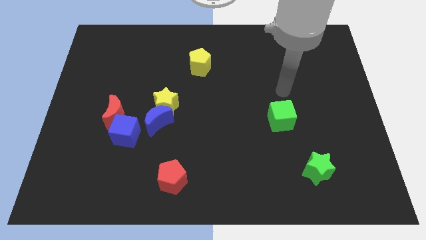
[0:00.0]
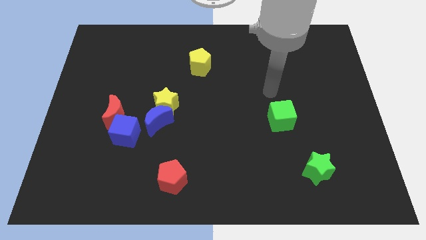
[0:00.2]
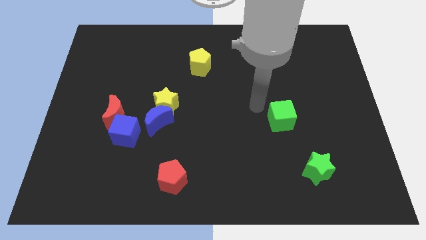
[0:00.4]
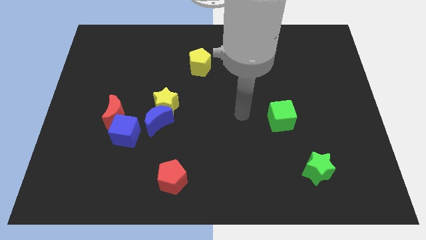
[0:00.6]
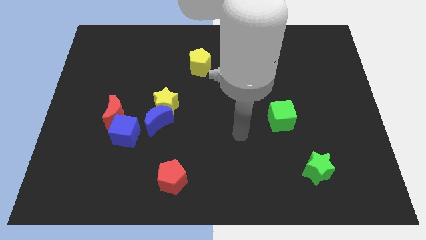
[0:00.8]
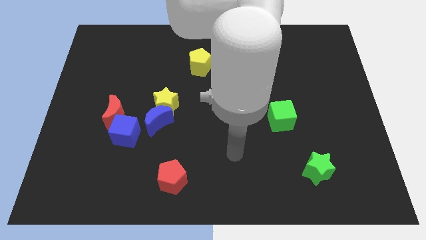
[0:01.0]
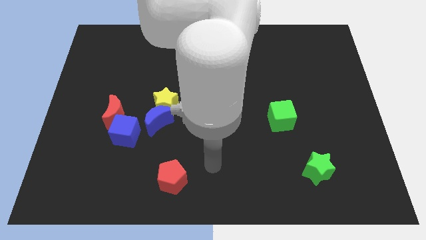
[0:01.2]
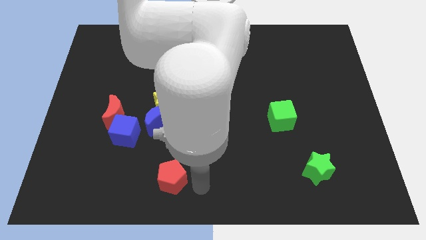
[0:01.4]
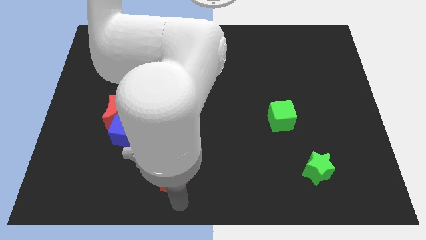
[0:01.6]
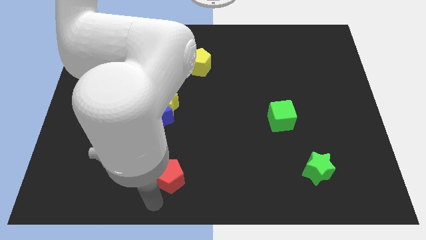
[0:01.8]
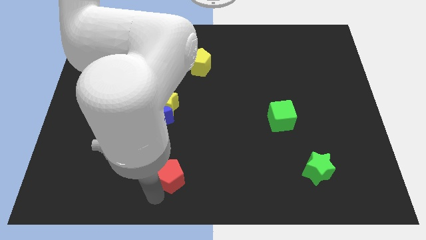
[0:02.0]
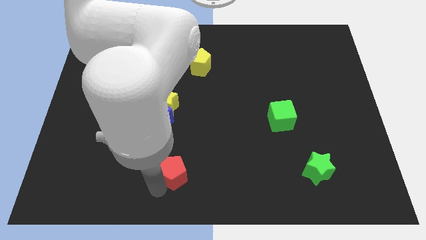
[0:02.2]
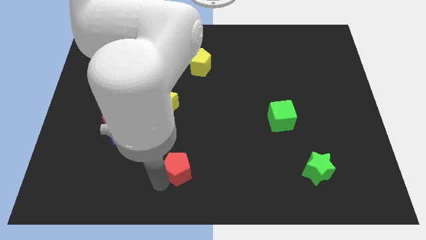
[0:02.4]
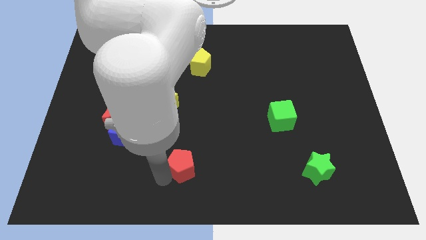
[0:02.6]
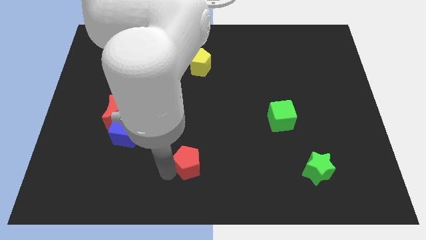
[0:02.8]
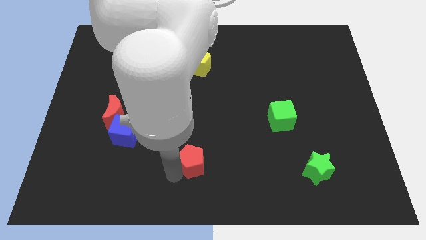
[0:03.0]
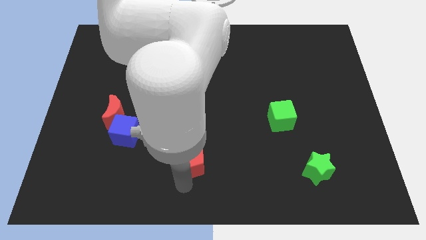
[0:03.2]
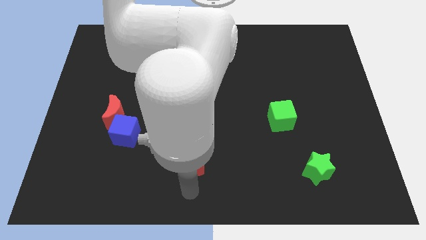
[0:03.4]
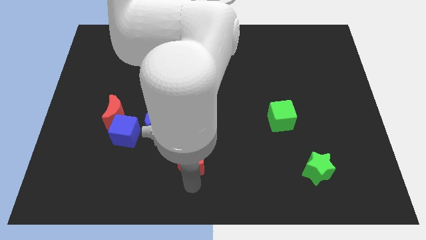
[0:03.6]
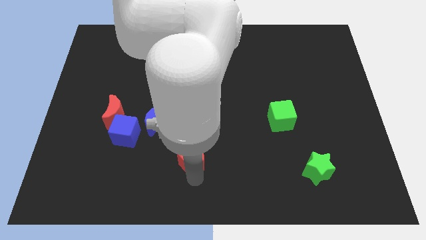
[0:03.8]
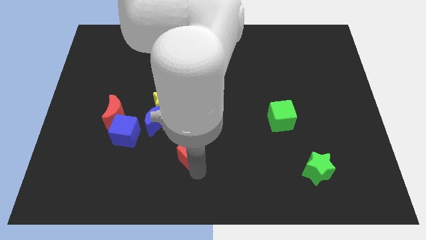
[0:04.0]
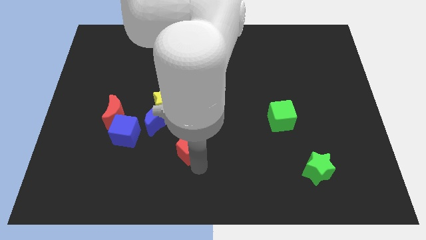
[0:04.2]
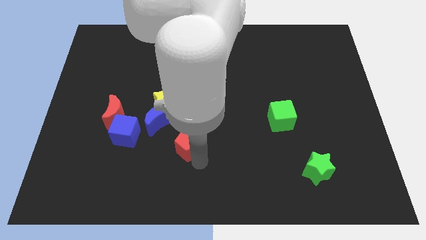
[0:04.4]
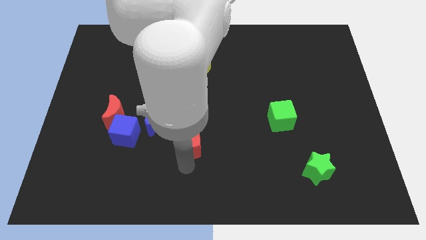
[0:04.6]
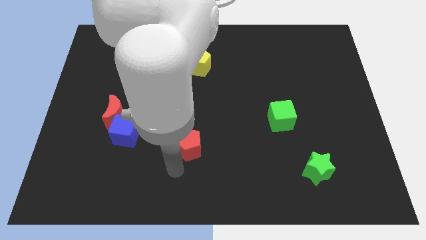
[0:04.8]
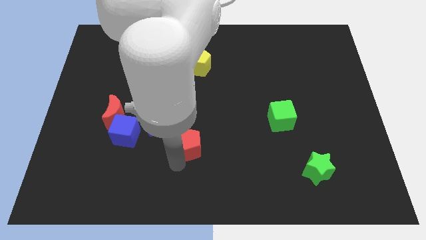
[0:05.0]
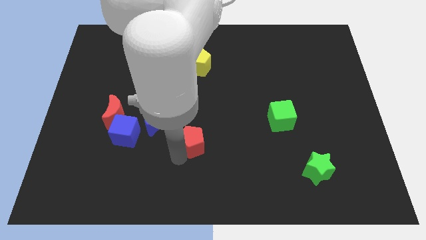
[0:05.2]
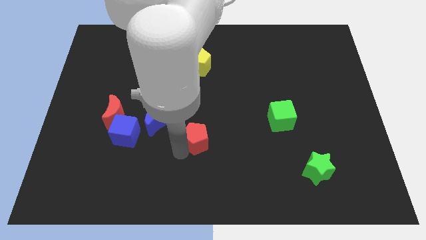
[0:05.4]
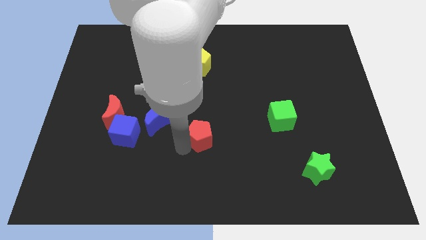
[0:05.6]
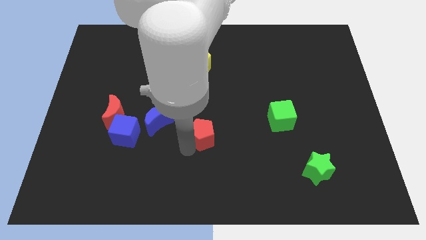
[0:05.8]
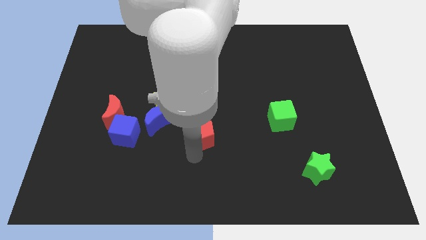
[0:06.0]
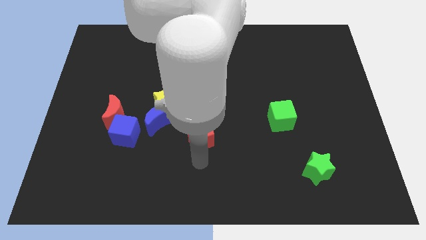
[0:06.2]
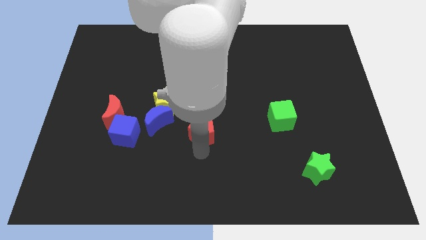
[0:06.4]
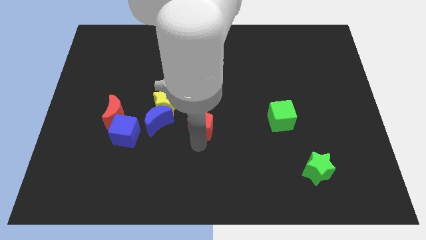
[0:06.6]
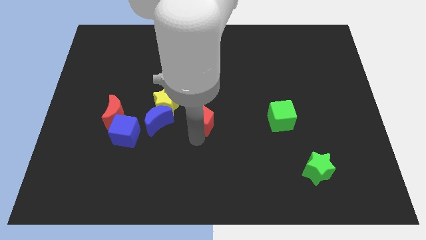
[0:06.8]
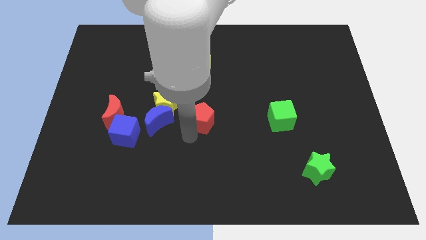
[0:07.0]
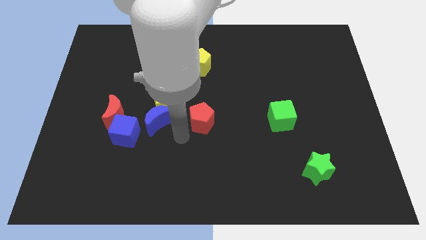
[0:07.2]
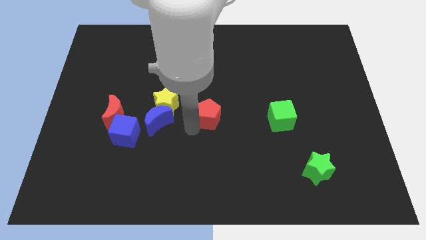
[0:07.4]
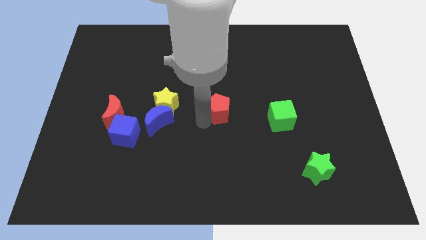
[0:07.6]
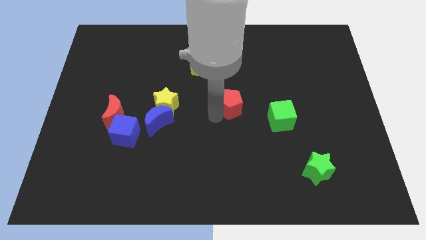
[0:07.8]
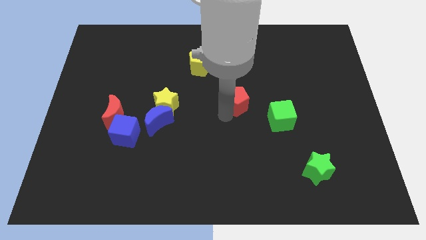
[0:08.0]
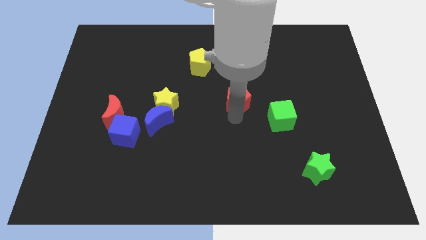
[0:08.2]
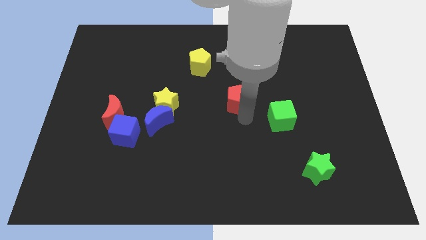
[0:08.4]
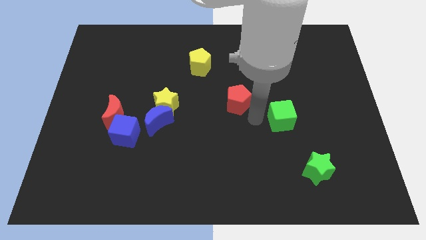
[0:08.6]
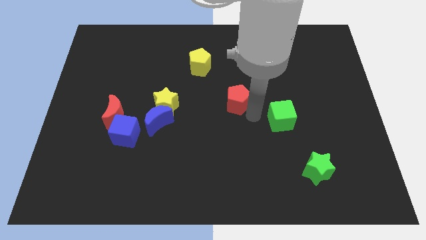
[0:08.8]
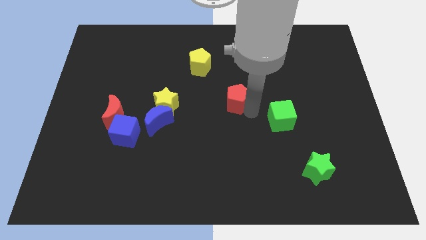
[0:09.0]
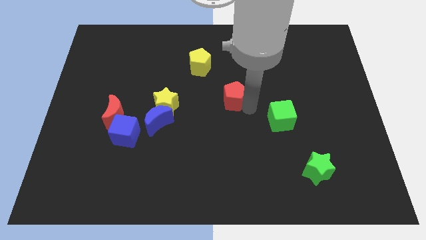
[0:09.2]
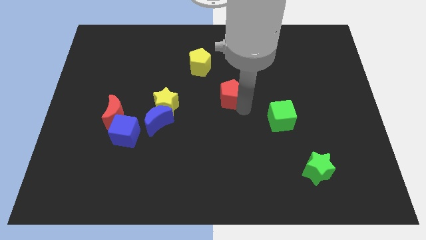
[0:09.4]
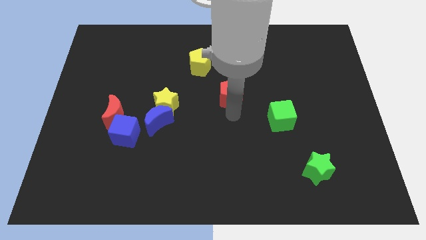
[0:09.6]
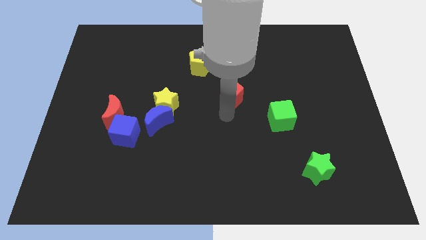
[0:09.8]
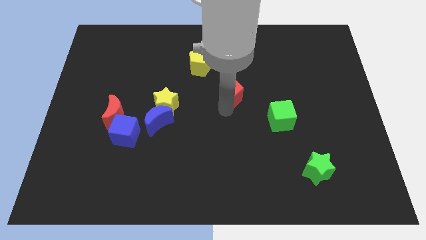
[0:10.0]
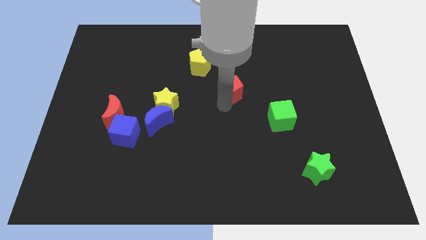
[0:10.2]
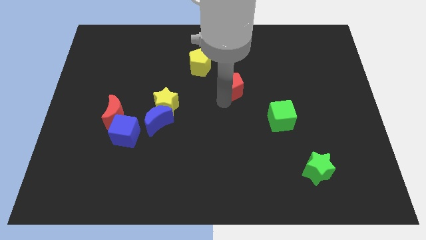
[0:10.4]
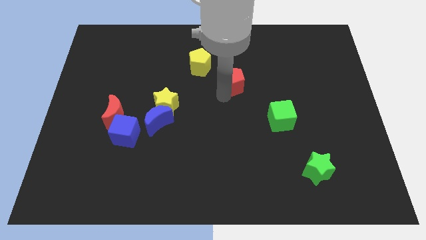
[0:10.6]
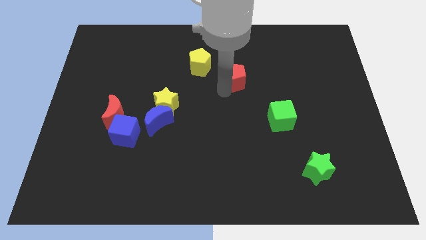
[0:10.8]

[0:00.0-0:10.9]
slide the red pentagon to the right side of the yellow pentagon

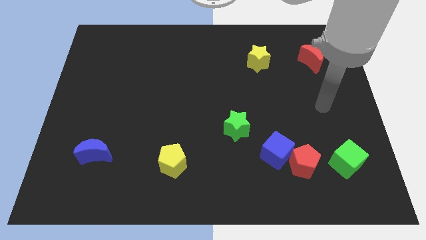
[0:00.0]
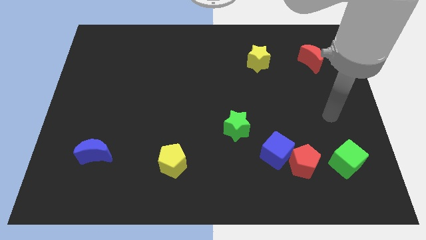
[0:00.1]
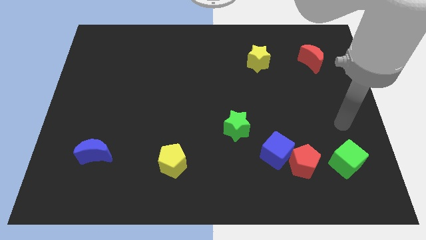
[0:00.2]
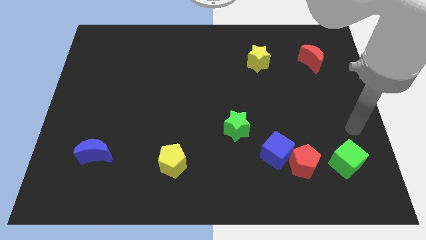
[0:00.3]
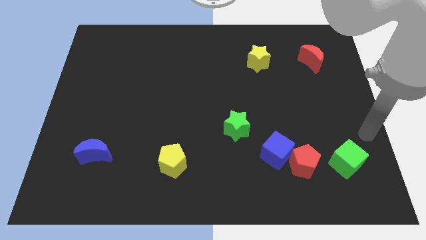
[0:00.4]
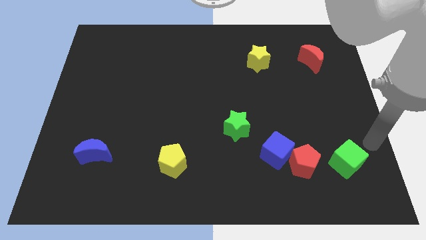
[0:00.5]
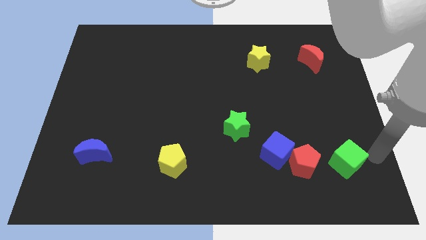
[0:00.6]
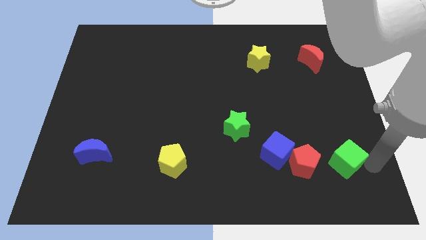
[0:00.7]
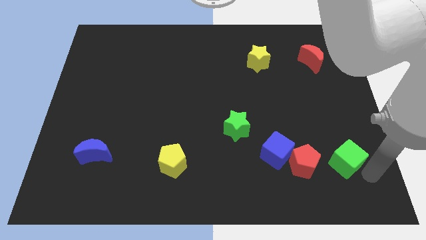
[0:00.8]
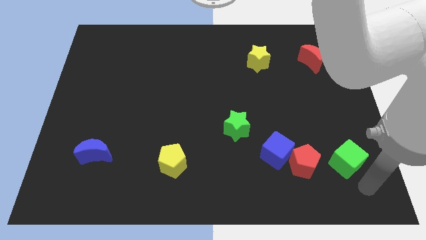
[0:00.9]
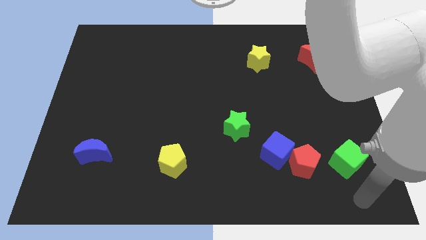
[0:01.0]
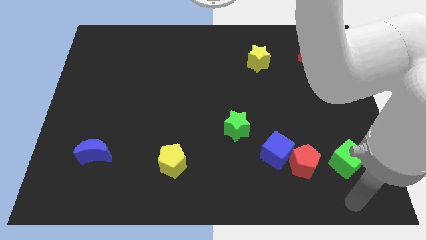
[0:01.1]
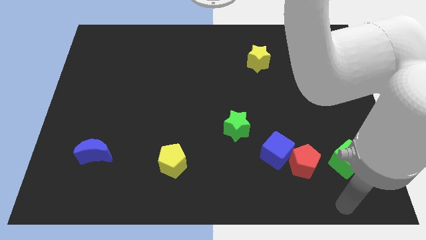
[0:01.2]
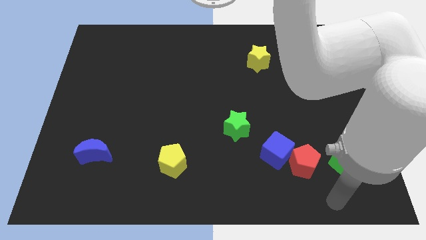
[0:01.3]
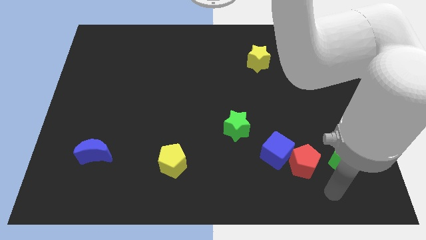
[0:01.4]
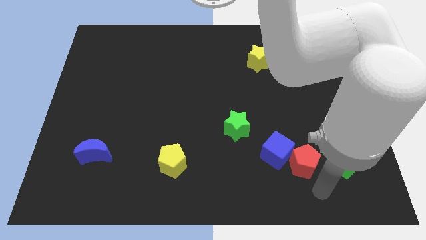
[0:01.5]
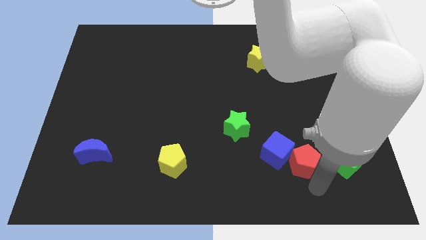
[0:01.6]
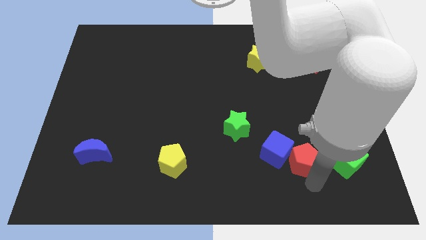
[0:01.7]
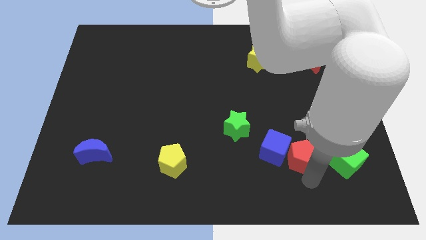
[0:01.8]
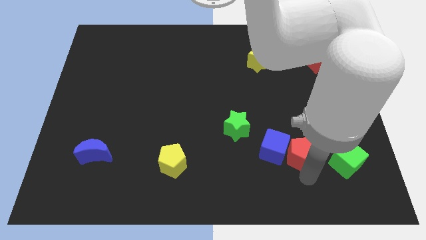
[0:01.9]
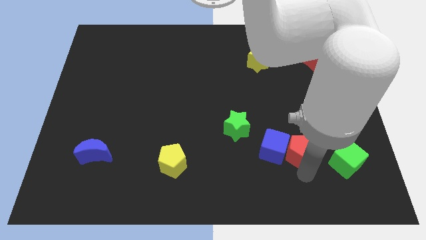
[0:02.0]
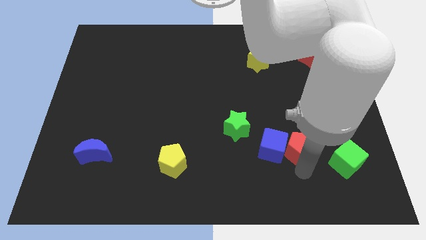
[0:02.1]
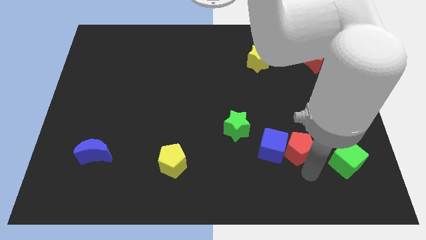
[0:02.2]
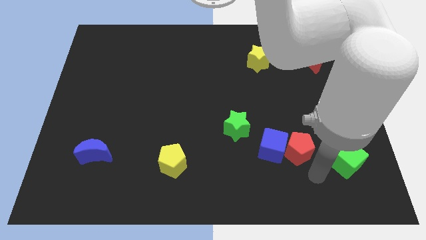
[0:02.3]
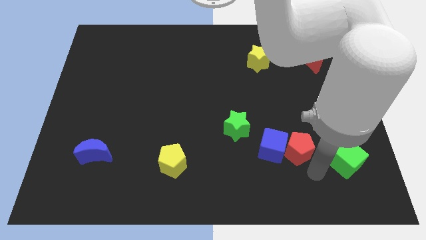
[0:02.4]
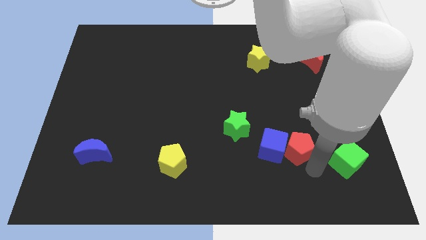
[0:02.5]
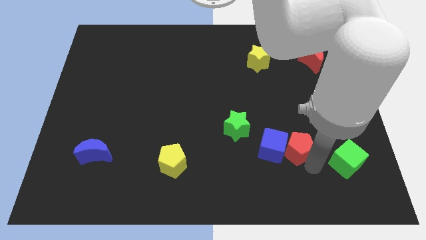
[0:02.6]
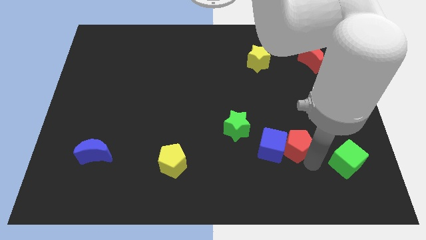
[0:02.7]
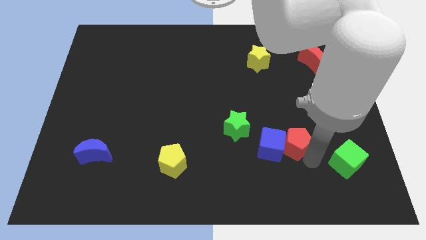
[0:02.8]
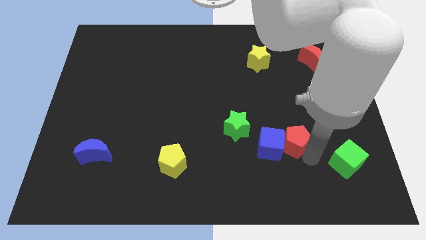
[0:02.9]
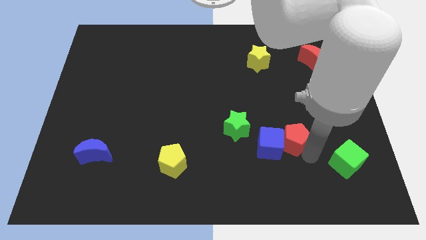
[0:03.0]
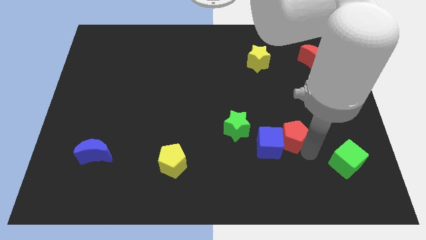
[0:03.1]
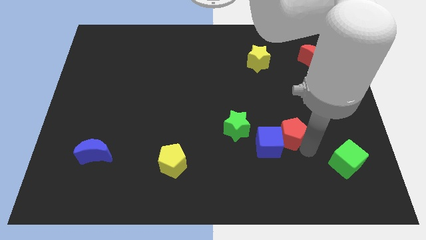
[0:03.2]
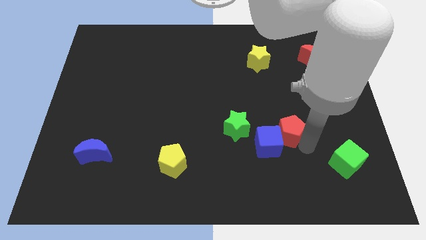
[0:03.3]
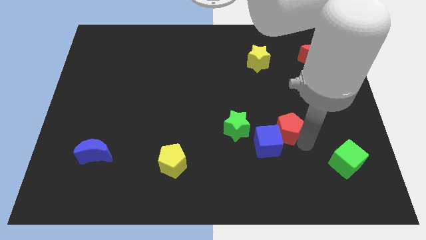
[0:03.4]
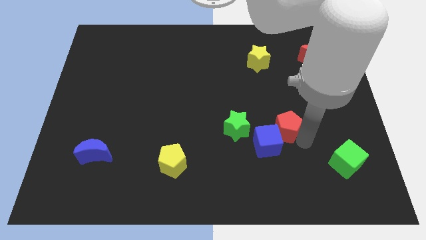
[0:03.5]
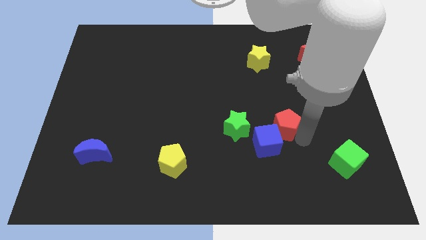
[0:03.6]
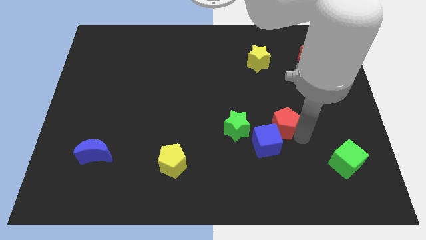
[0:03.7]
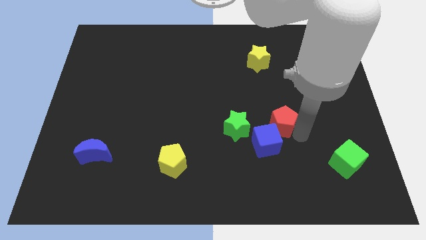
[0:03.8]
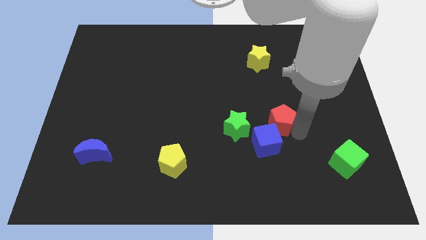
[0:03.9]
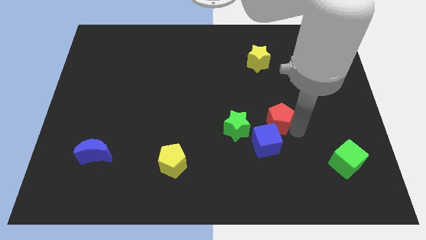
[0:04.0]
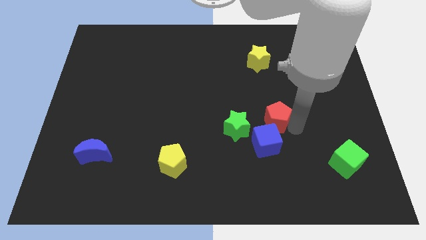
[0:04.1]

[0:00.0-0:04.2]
put the red pentagon to the top right of the green star
